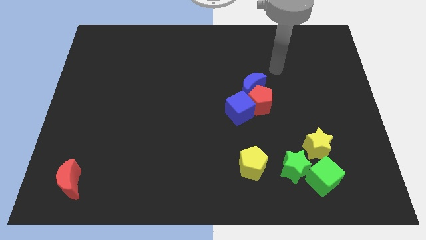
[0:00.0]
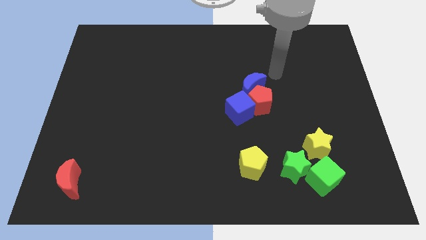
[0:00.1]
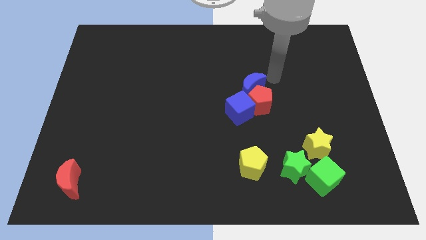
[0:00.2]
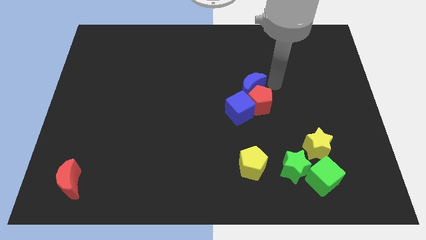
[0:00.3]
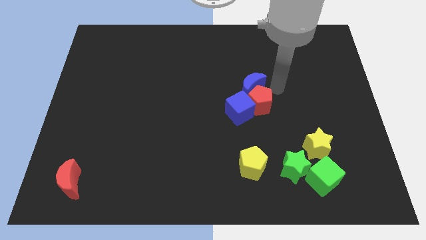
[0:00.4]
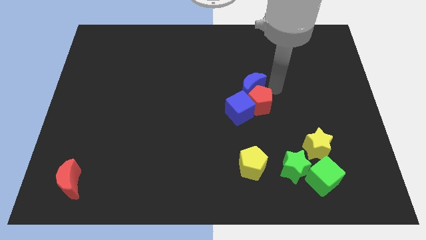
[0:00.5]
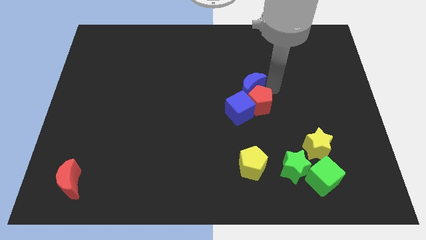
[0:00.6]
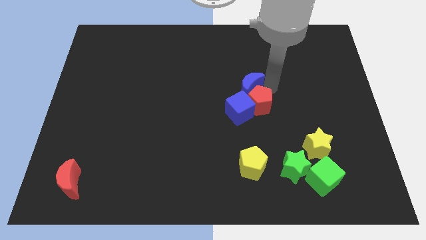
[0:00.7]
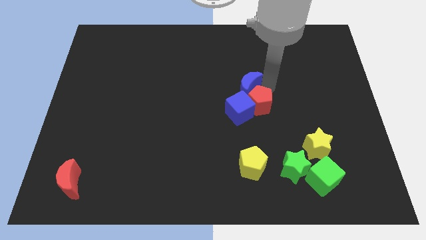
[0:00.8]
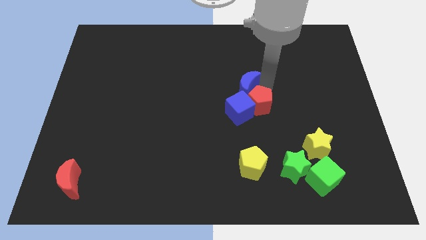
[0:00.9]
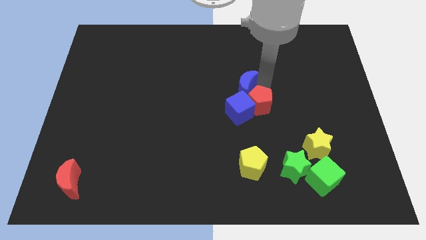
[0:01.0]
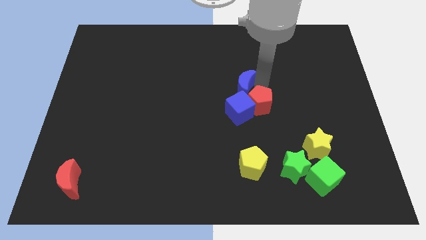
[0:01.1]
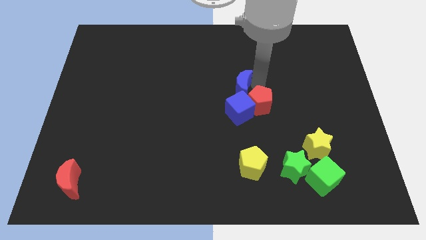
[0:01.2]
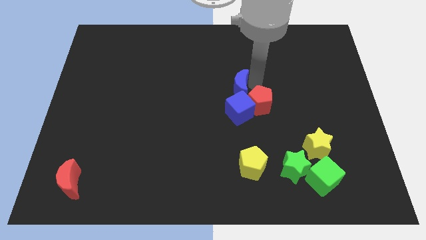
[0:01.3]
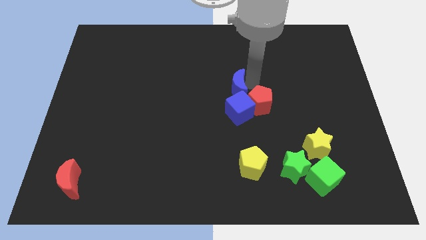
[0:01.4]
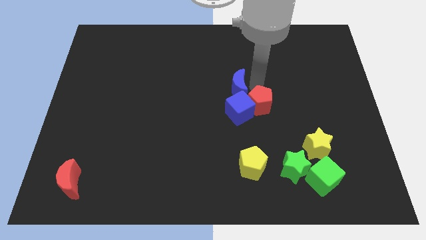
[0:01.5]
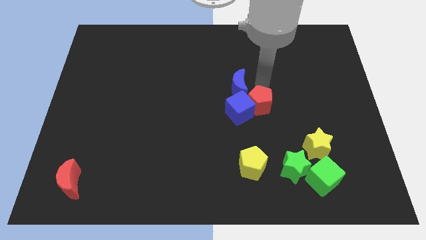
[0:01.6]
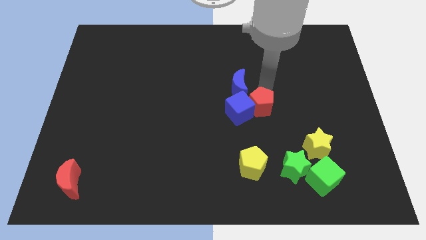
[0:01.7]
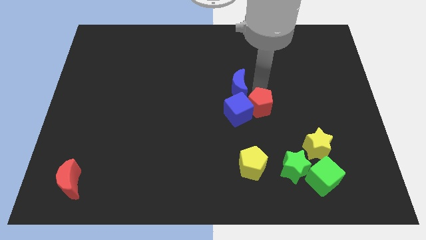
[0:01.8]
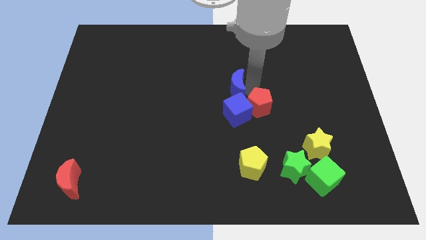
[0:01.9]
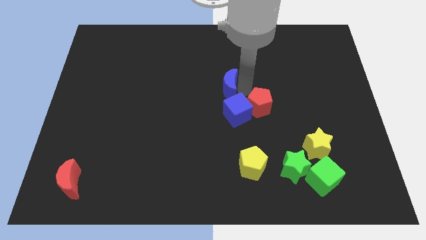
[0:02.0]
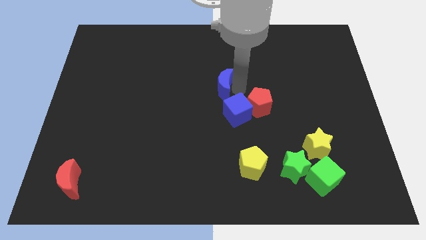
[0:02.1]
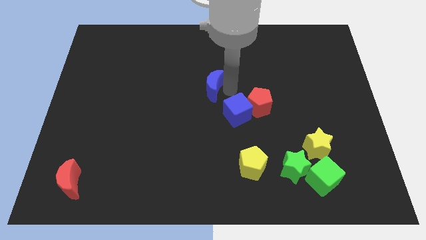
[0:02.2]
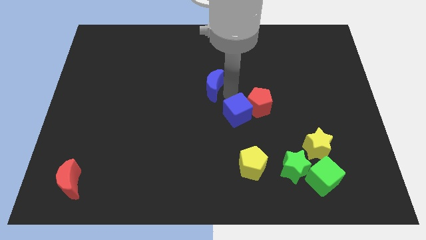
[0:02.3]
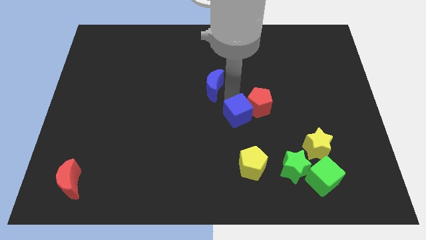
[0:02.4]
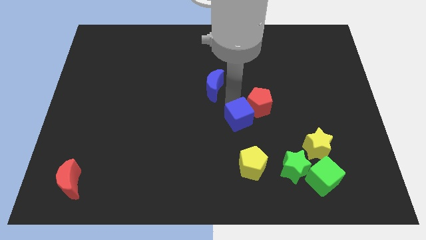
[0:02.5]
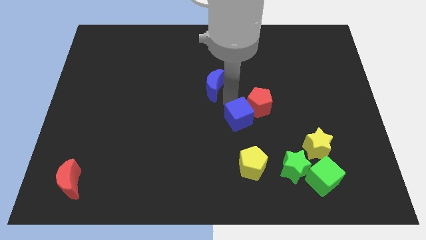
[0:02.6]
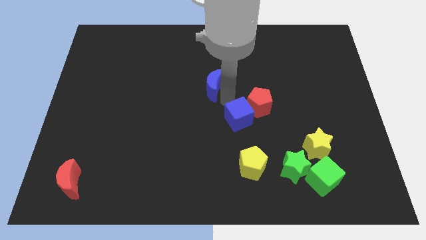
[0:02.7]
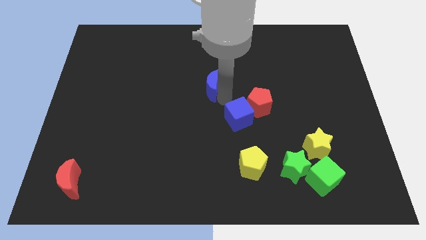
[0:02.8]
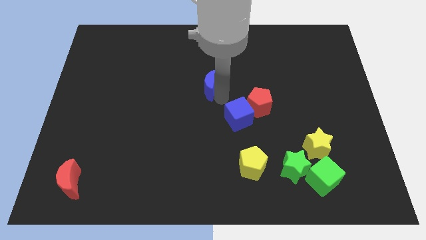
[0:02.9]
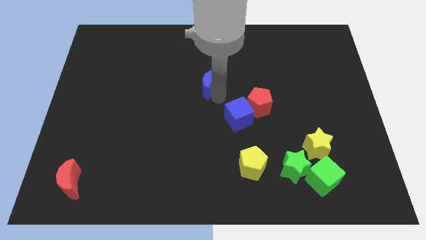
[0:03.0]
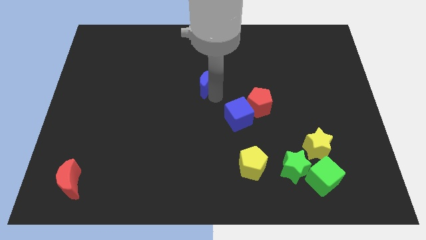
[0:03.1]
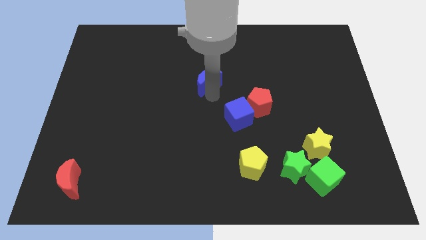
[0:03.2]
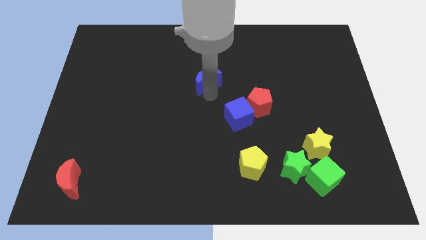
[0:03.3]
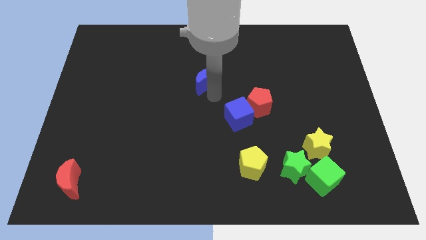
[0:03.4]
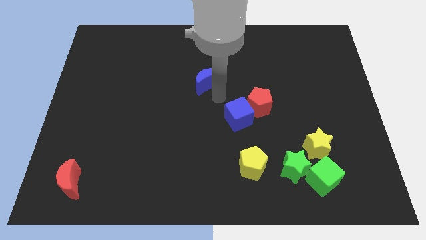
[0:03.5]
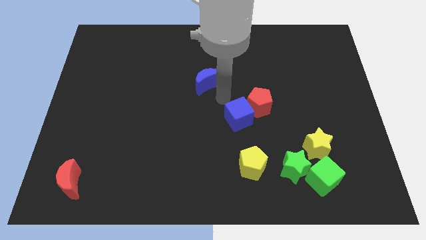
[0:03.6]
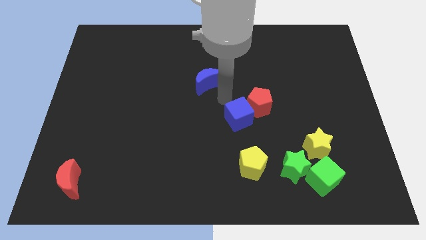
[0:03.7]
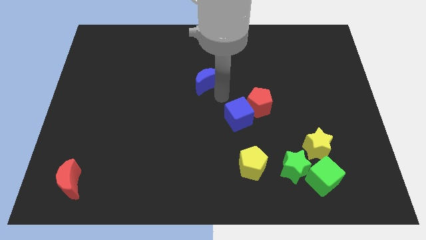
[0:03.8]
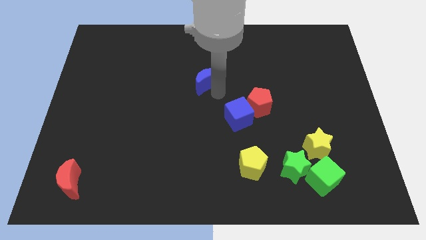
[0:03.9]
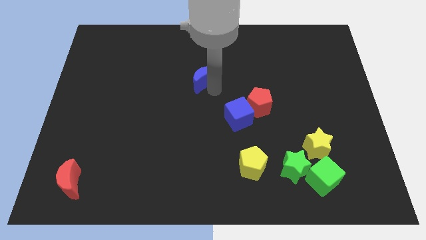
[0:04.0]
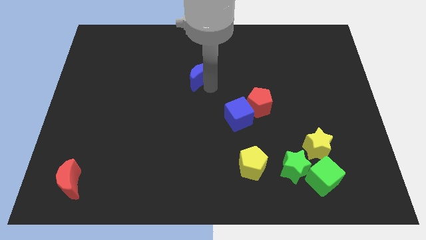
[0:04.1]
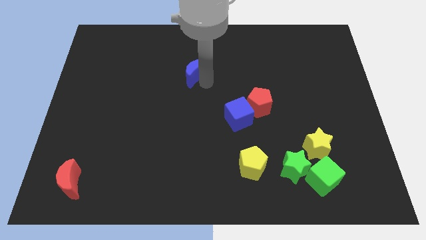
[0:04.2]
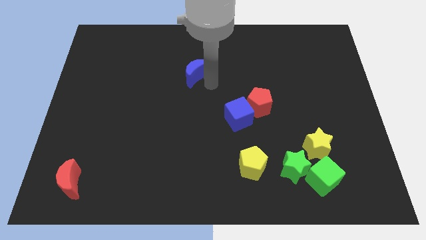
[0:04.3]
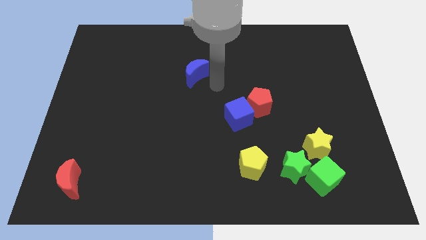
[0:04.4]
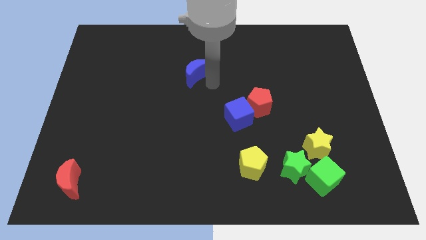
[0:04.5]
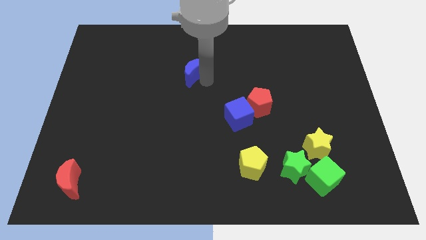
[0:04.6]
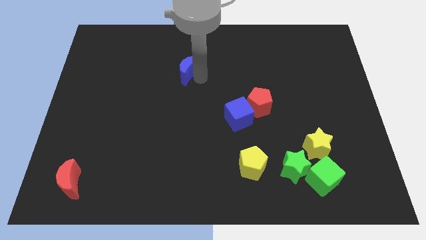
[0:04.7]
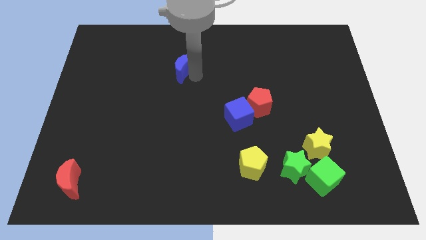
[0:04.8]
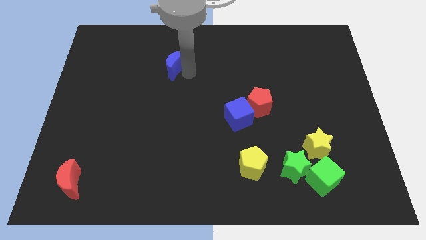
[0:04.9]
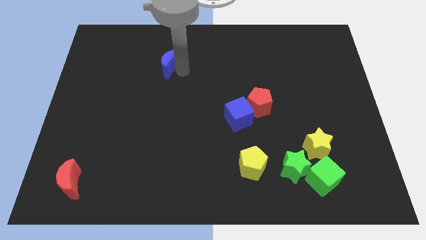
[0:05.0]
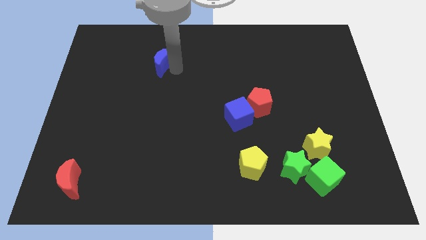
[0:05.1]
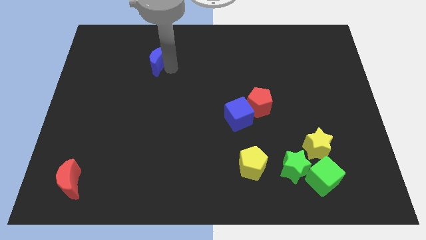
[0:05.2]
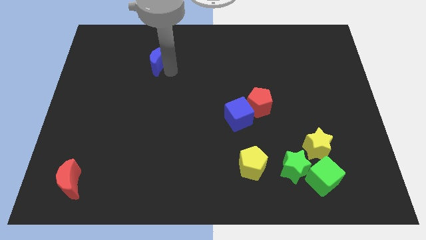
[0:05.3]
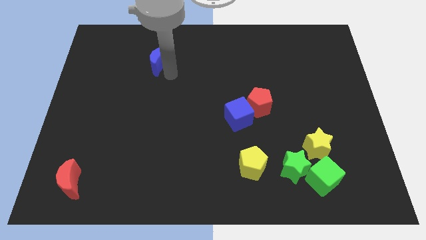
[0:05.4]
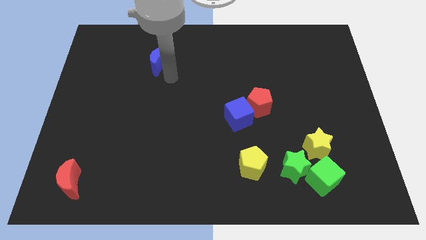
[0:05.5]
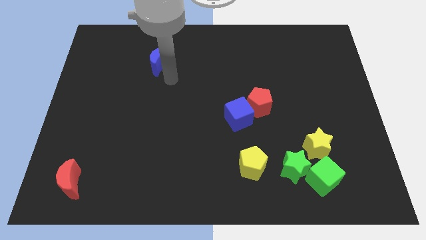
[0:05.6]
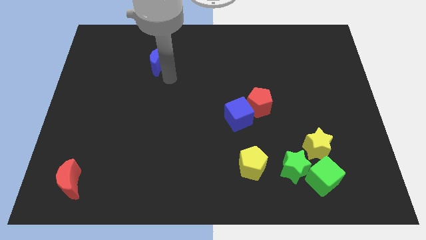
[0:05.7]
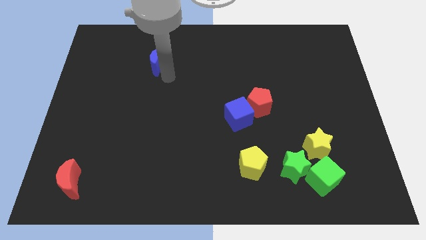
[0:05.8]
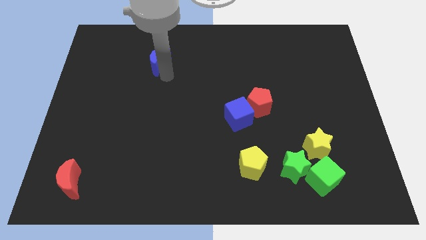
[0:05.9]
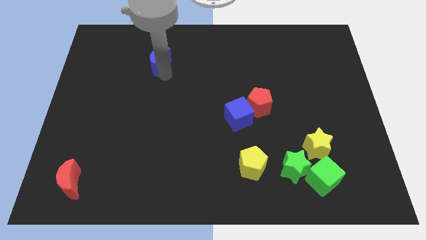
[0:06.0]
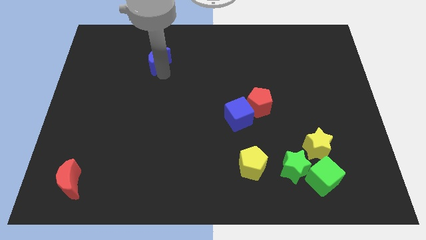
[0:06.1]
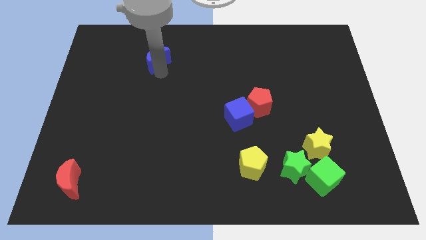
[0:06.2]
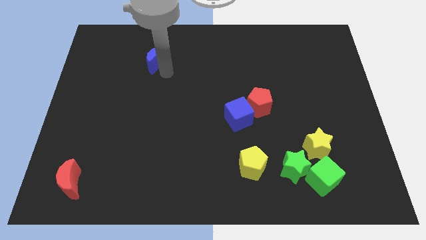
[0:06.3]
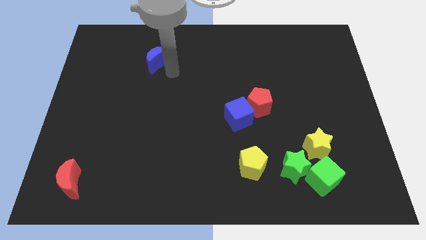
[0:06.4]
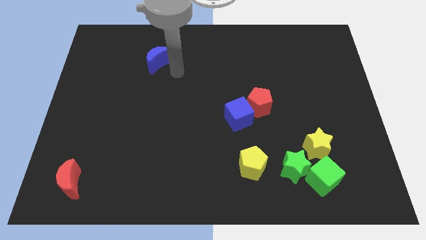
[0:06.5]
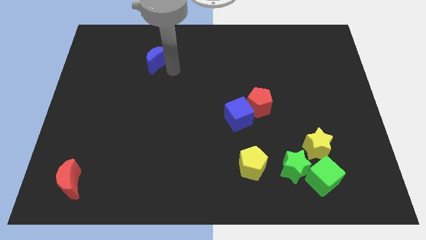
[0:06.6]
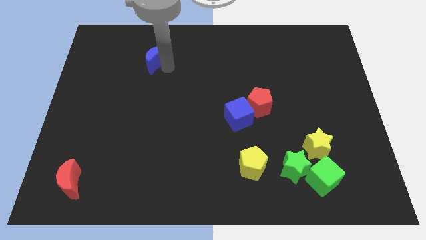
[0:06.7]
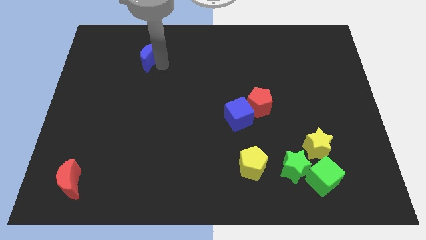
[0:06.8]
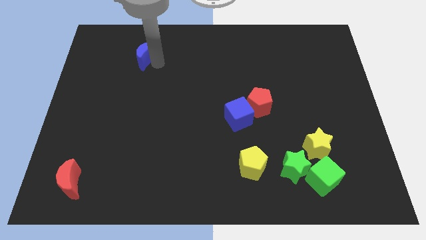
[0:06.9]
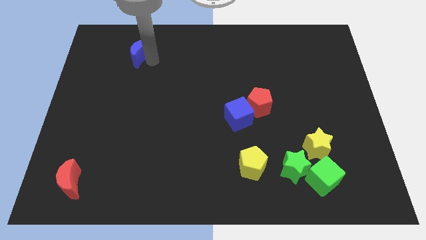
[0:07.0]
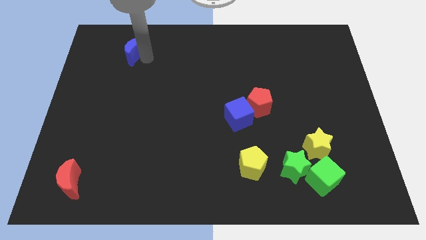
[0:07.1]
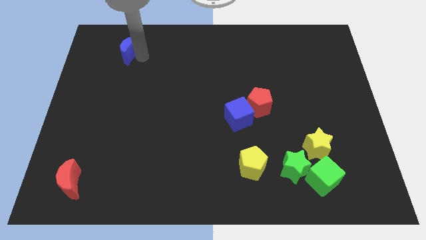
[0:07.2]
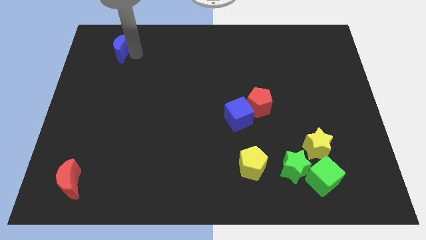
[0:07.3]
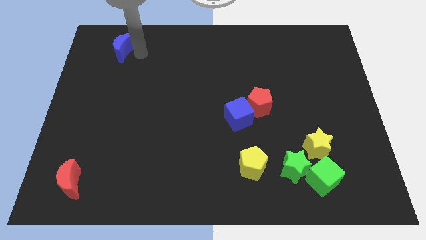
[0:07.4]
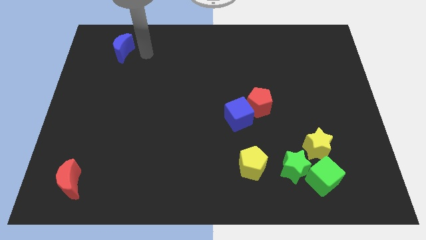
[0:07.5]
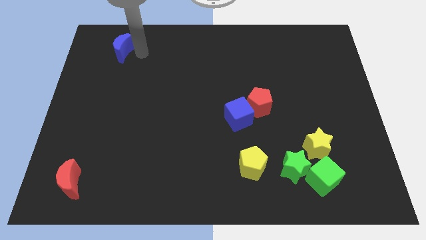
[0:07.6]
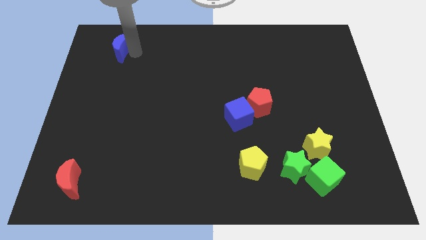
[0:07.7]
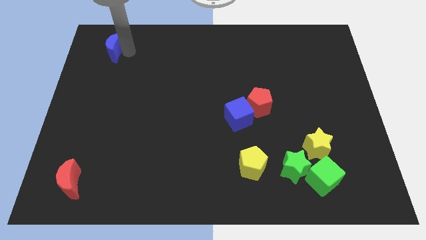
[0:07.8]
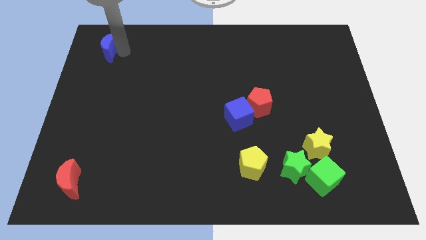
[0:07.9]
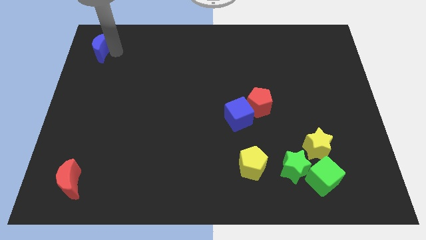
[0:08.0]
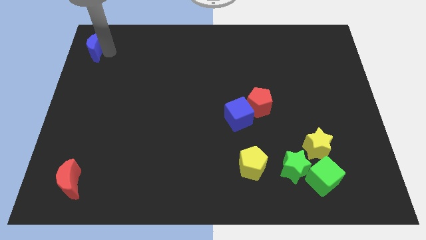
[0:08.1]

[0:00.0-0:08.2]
push the blue moon to the top left
